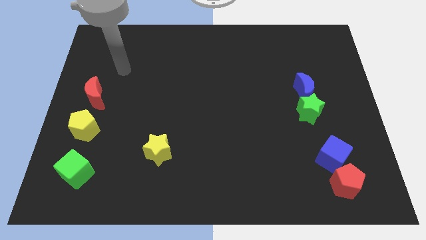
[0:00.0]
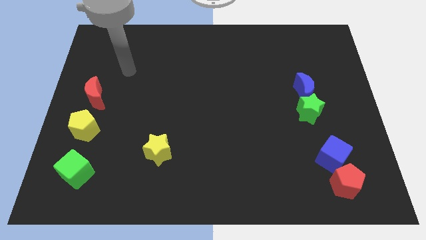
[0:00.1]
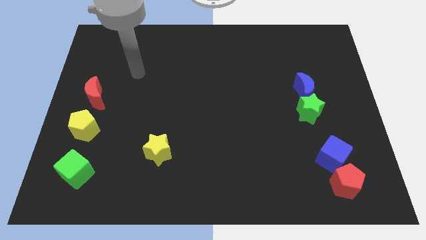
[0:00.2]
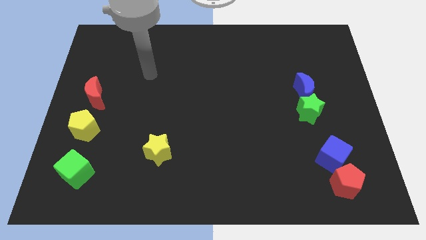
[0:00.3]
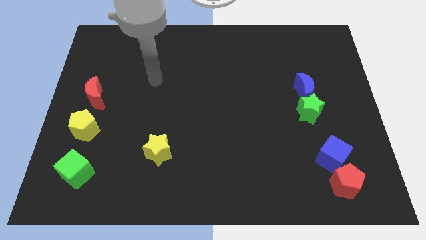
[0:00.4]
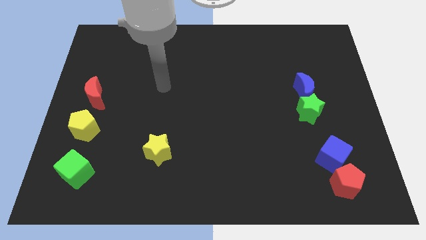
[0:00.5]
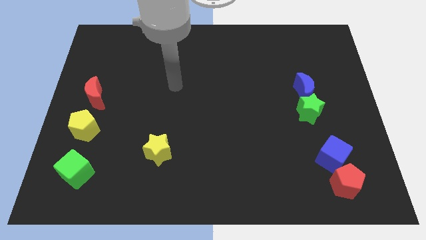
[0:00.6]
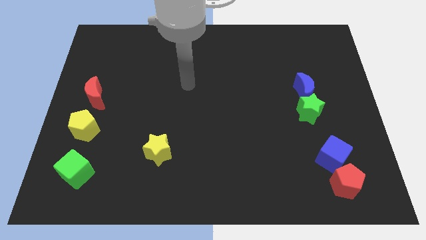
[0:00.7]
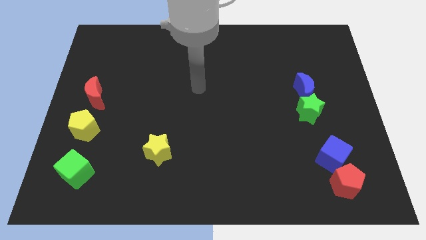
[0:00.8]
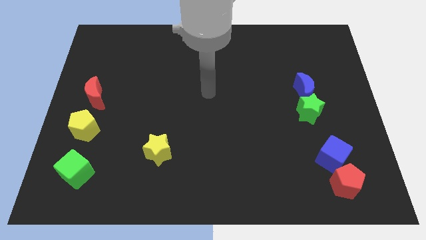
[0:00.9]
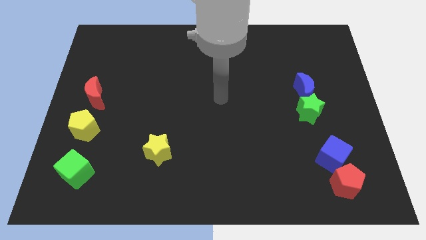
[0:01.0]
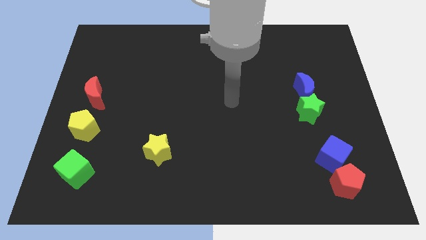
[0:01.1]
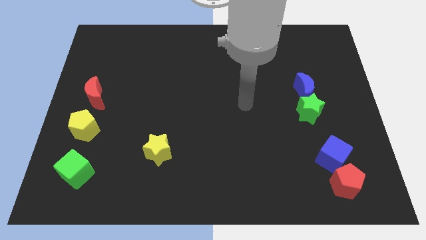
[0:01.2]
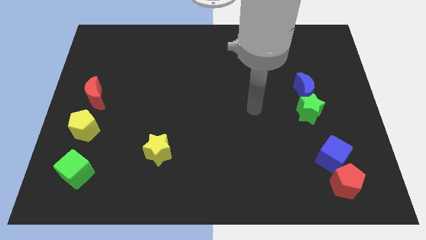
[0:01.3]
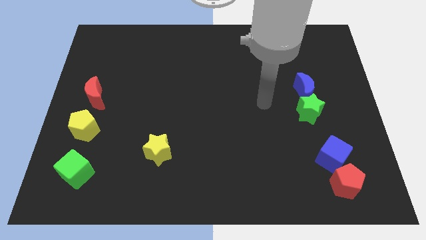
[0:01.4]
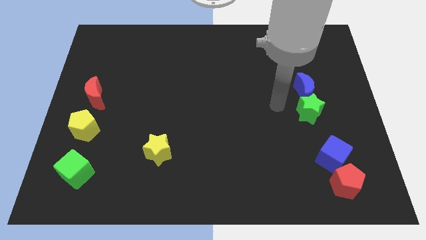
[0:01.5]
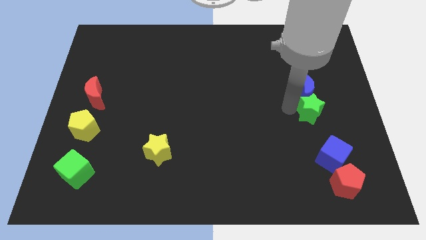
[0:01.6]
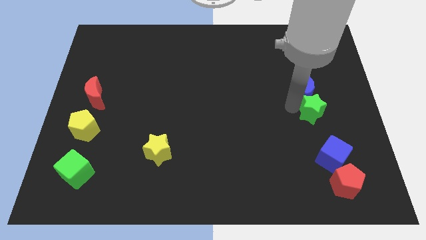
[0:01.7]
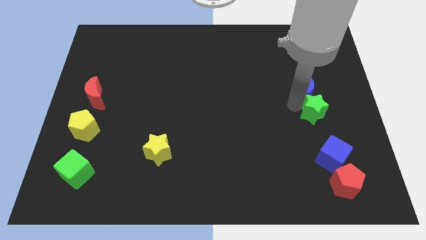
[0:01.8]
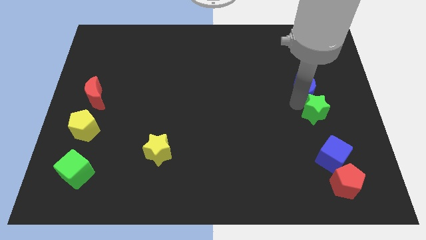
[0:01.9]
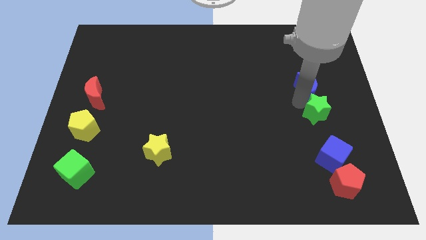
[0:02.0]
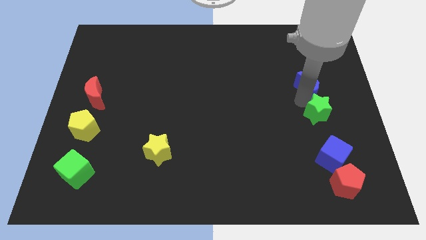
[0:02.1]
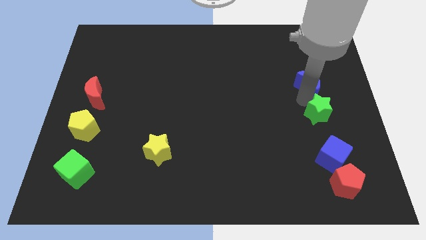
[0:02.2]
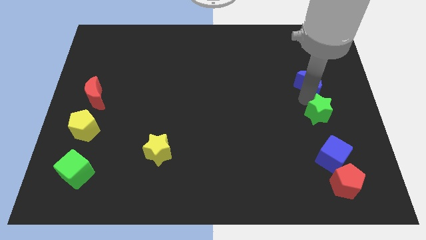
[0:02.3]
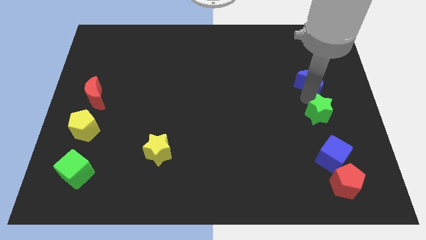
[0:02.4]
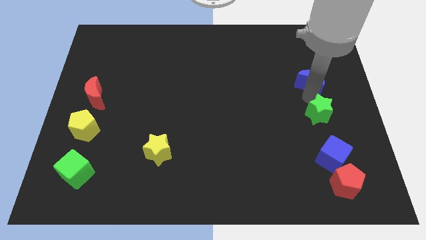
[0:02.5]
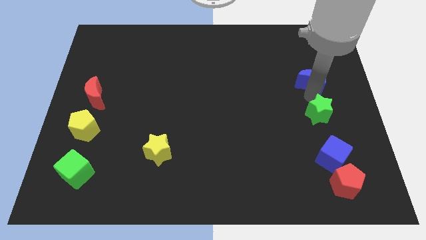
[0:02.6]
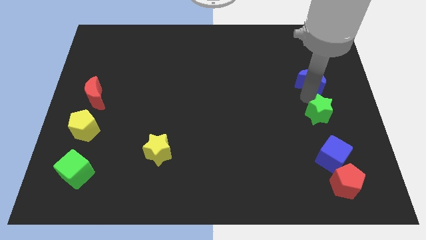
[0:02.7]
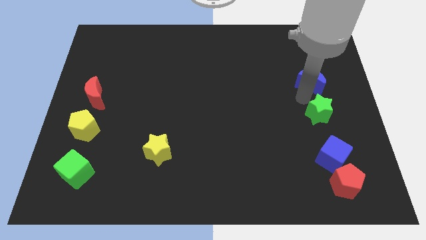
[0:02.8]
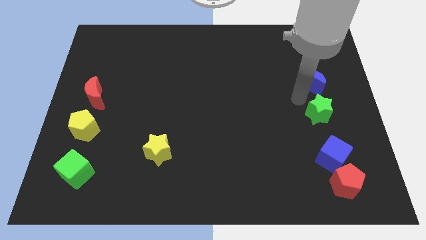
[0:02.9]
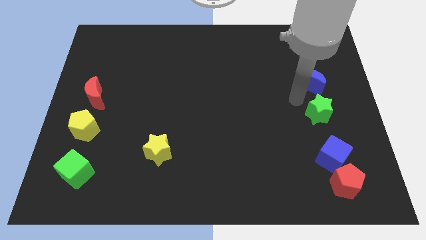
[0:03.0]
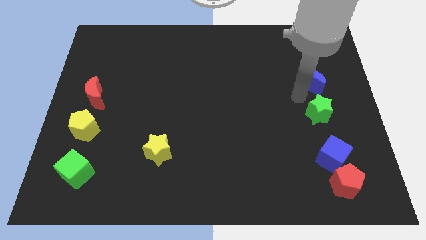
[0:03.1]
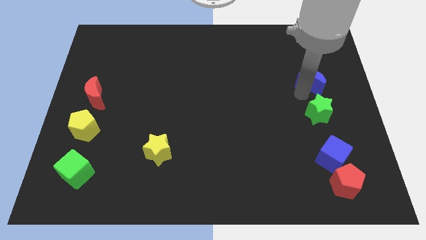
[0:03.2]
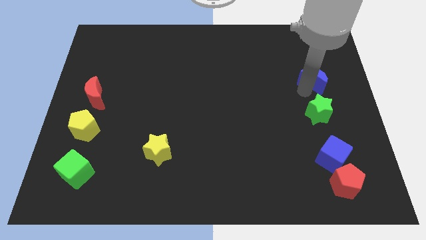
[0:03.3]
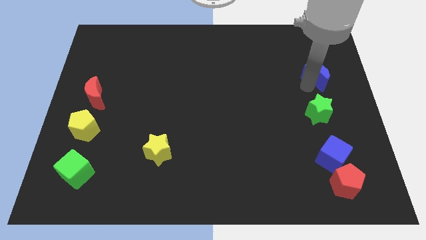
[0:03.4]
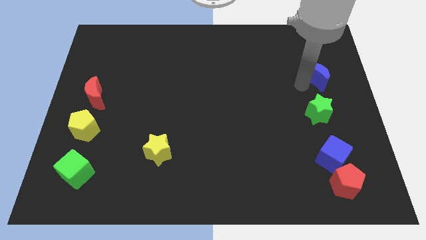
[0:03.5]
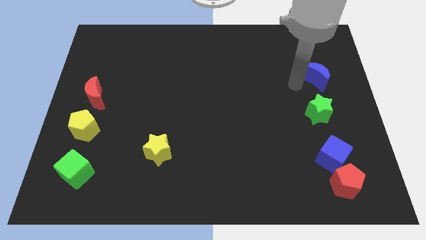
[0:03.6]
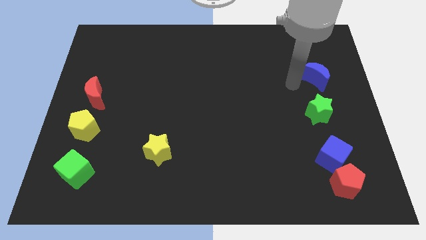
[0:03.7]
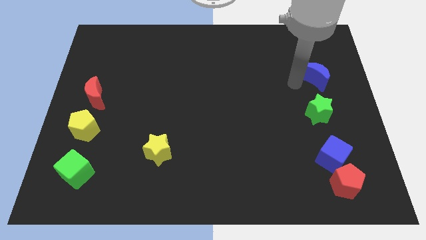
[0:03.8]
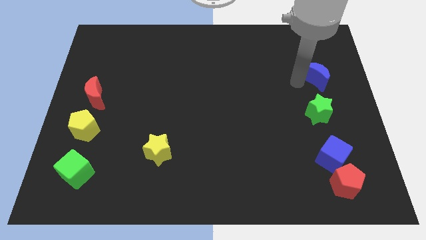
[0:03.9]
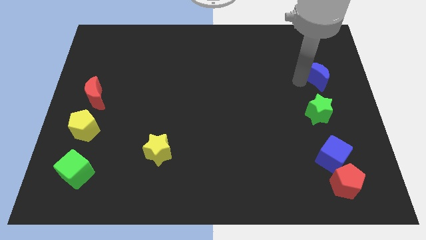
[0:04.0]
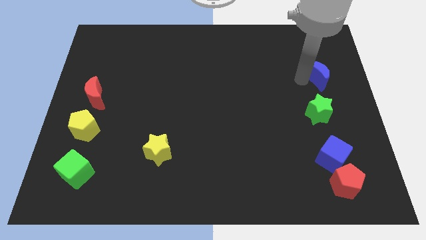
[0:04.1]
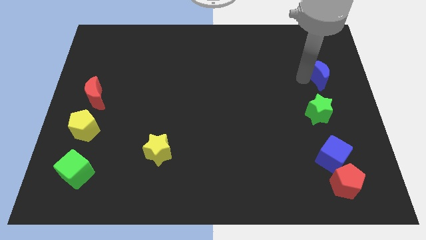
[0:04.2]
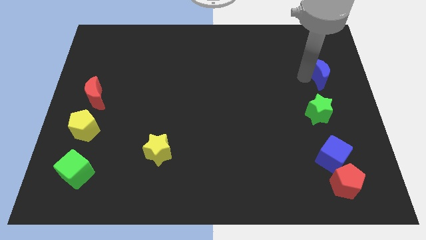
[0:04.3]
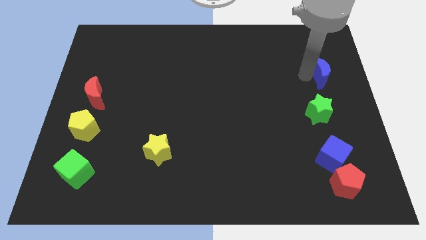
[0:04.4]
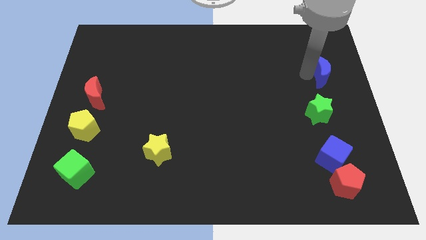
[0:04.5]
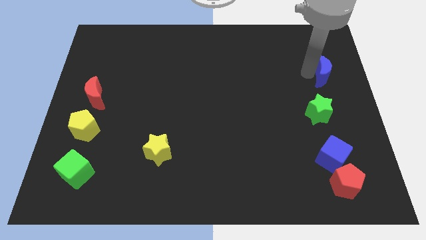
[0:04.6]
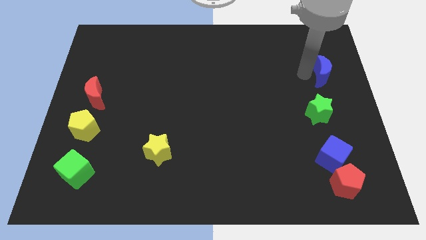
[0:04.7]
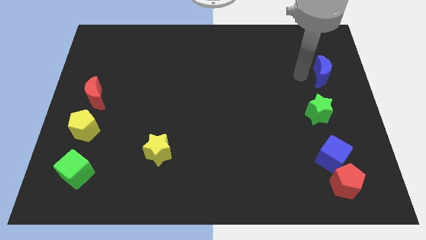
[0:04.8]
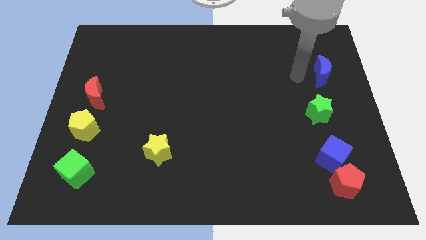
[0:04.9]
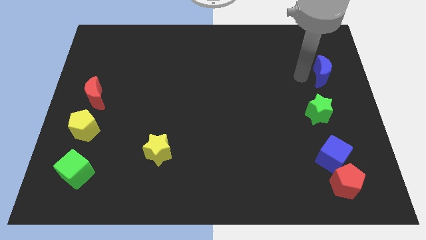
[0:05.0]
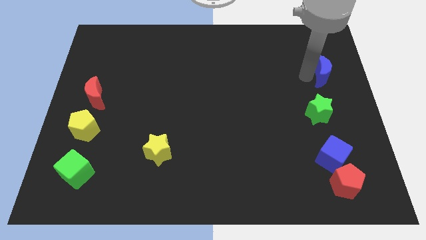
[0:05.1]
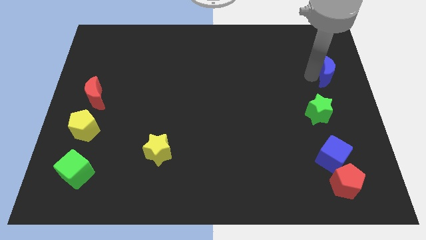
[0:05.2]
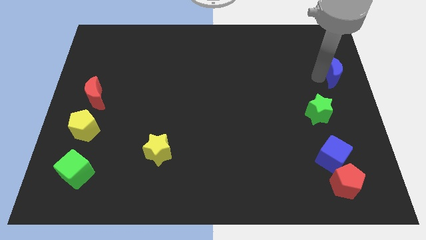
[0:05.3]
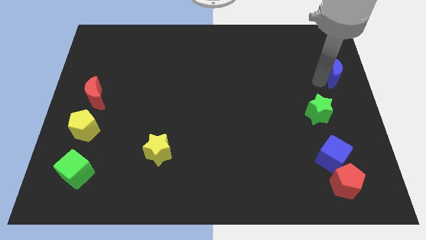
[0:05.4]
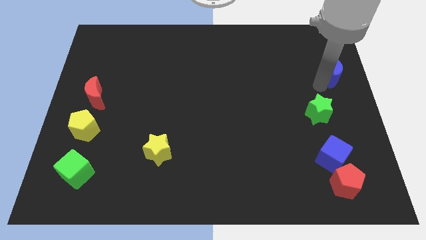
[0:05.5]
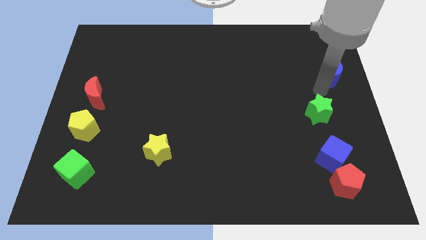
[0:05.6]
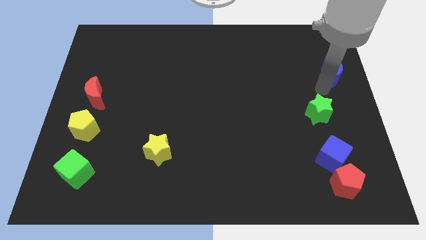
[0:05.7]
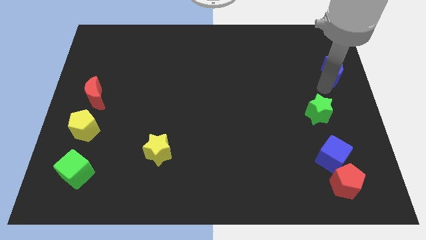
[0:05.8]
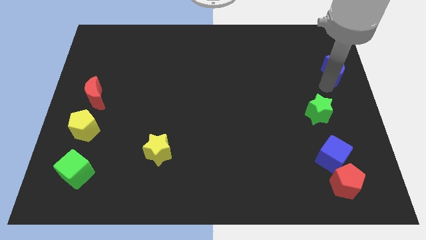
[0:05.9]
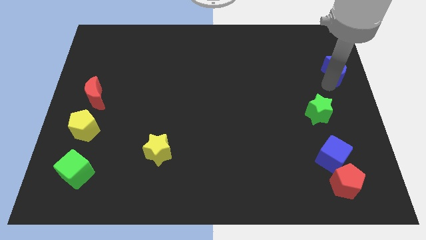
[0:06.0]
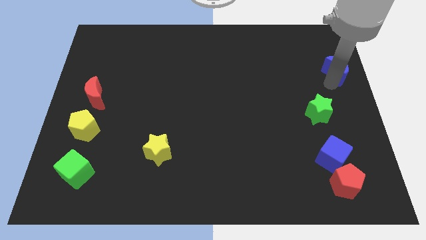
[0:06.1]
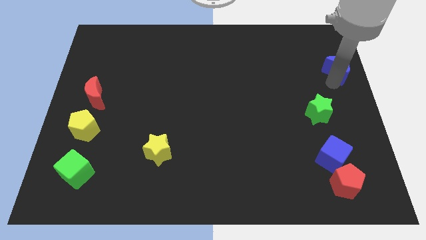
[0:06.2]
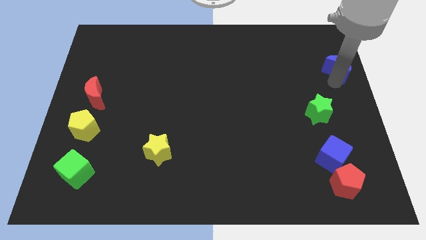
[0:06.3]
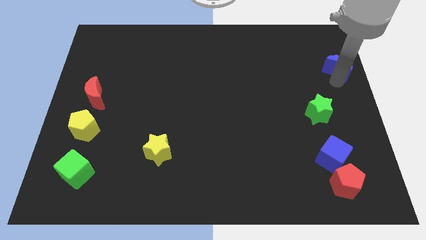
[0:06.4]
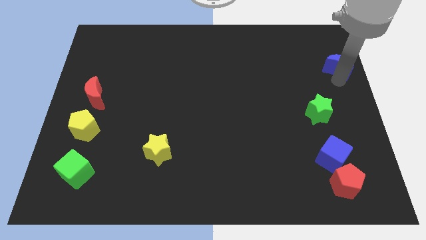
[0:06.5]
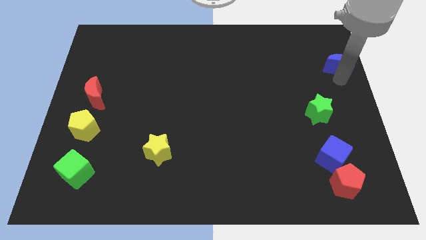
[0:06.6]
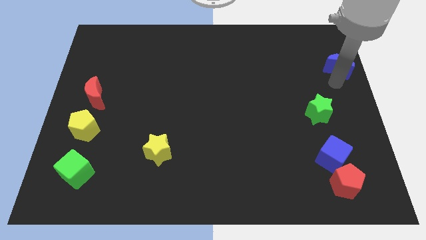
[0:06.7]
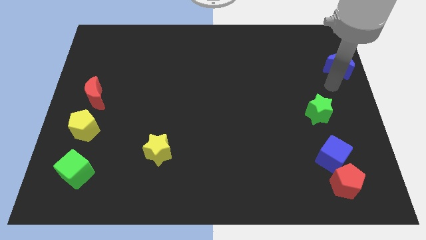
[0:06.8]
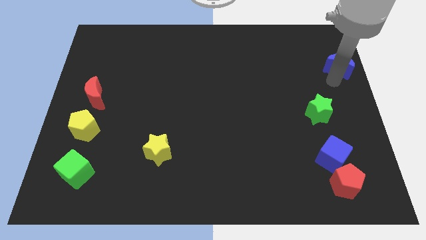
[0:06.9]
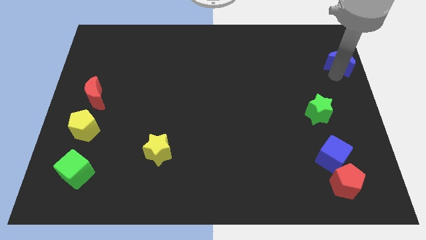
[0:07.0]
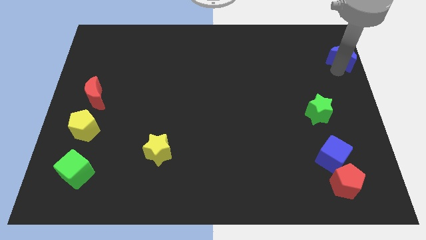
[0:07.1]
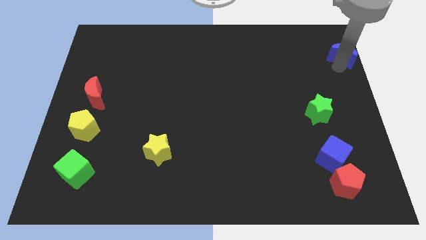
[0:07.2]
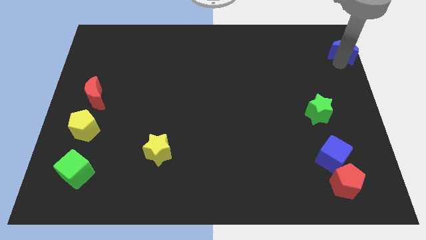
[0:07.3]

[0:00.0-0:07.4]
put the blue moon to the top right of the board
